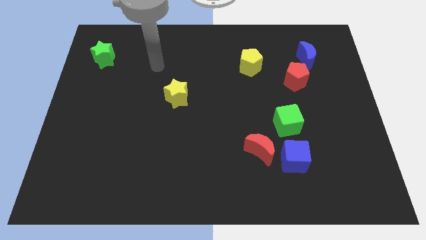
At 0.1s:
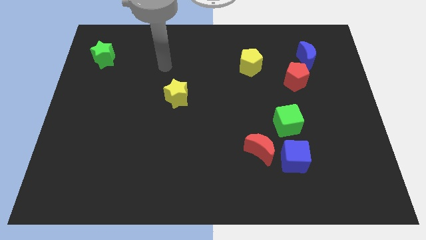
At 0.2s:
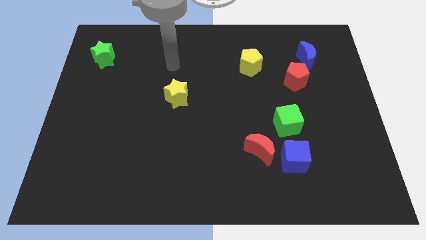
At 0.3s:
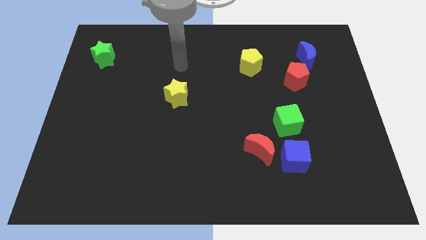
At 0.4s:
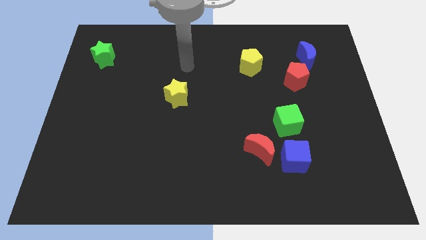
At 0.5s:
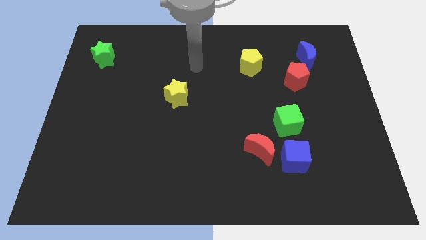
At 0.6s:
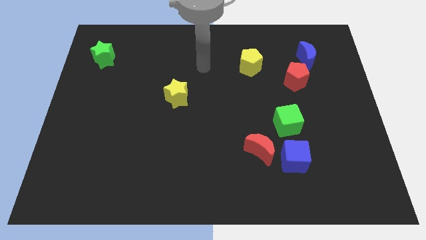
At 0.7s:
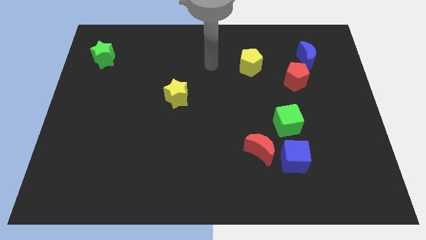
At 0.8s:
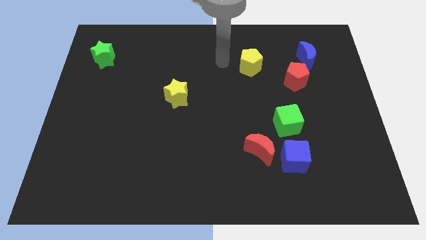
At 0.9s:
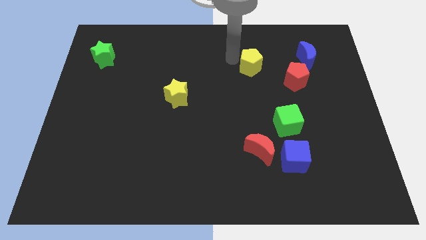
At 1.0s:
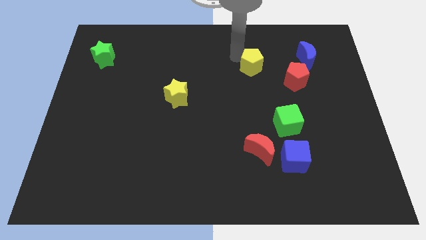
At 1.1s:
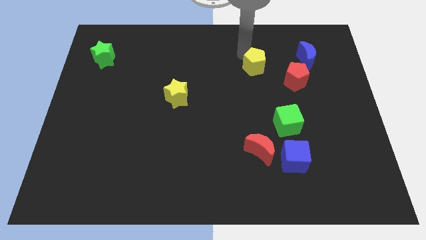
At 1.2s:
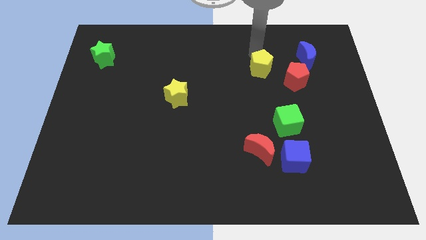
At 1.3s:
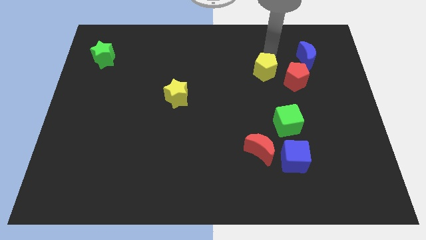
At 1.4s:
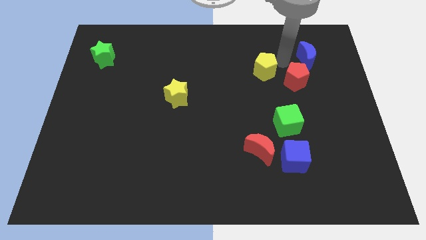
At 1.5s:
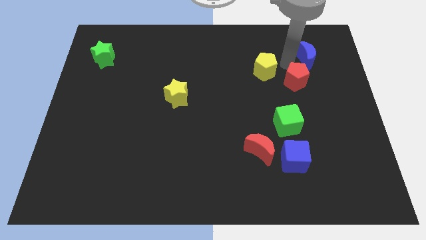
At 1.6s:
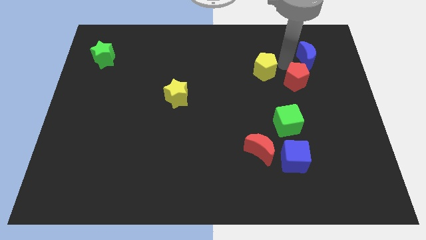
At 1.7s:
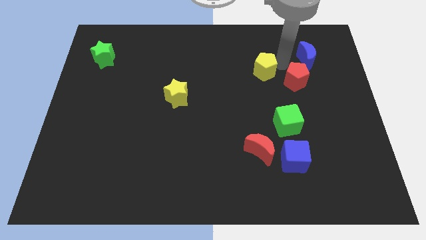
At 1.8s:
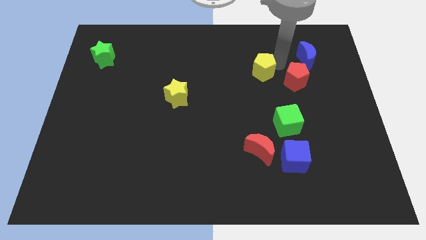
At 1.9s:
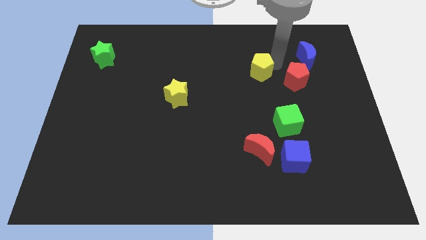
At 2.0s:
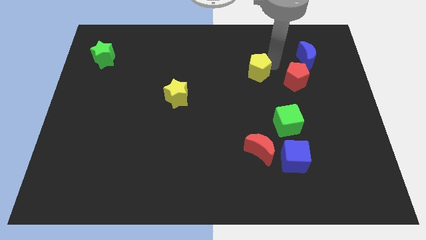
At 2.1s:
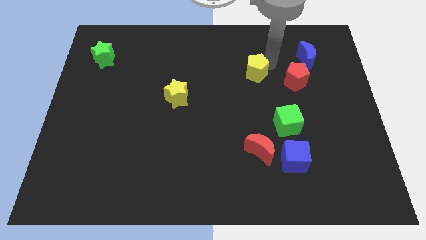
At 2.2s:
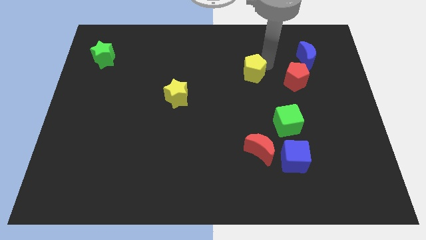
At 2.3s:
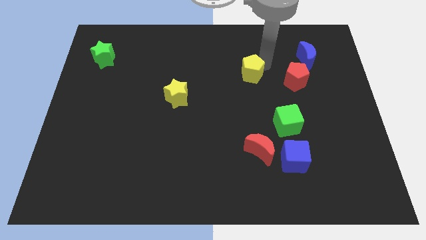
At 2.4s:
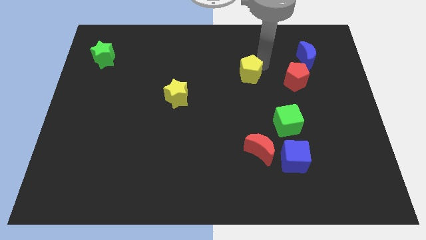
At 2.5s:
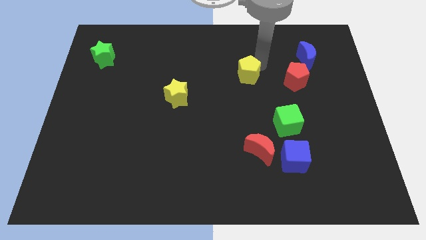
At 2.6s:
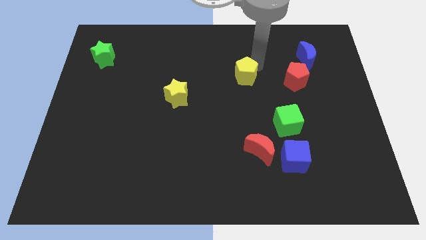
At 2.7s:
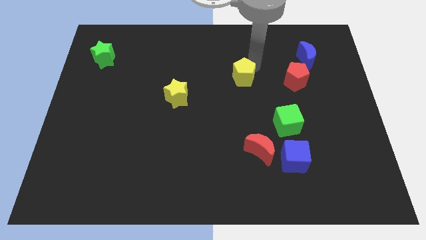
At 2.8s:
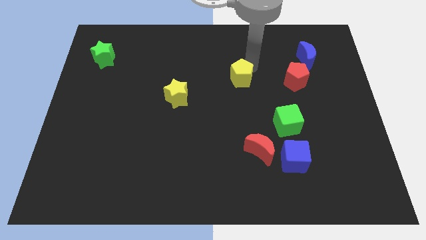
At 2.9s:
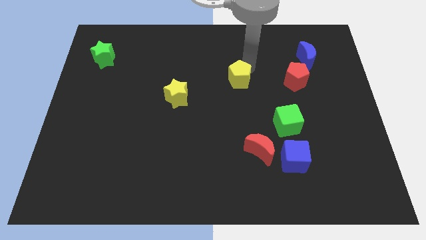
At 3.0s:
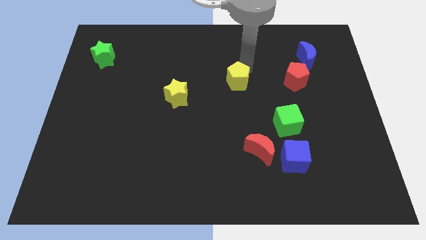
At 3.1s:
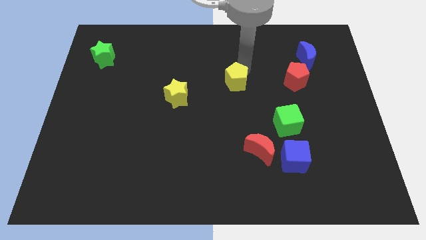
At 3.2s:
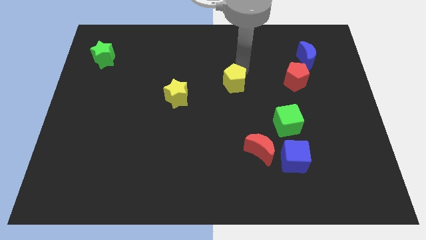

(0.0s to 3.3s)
slide the yellow pentagon down and to the left somewhat

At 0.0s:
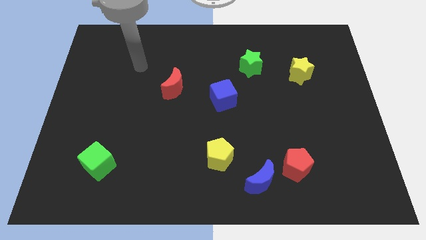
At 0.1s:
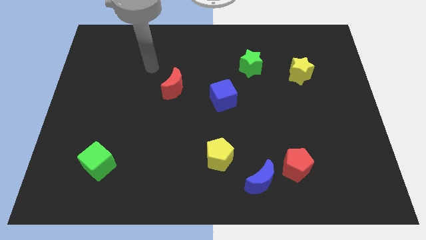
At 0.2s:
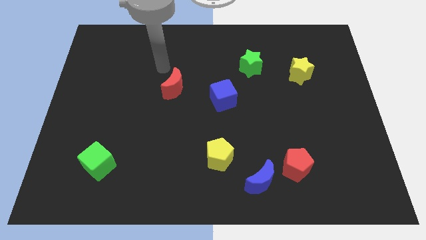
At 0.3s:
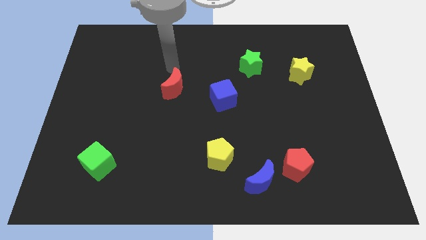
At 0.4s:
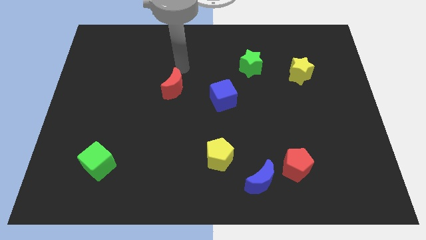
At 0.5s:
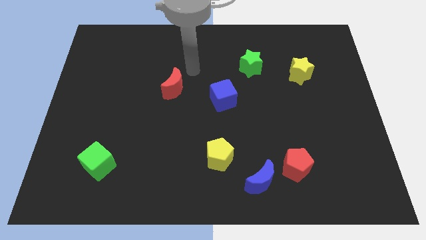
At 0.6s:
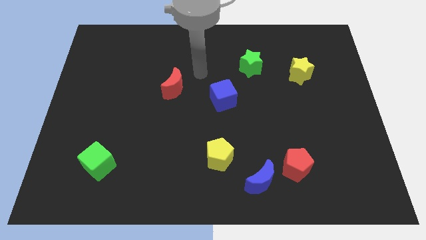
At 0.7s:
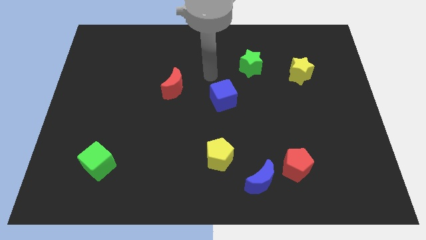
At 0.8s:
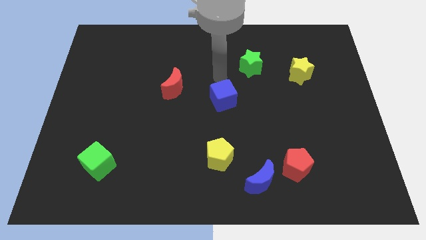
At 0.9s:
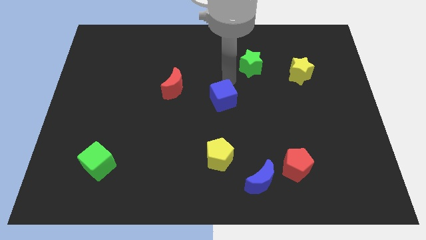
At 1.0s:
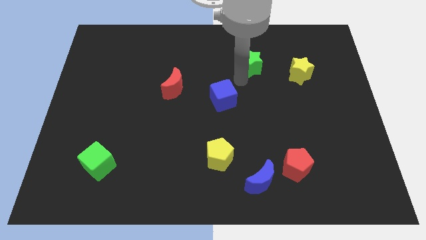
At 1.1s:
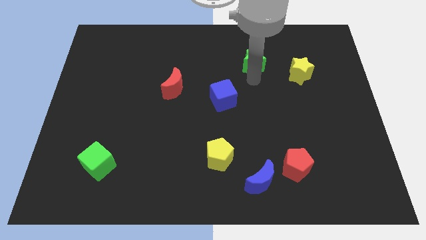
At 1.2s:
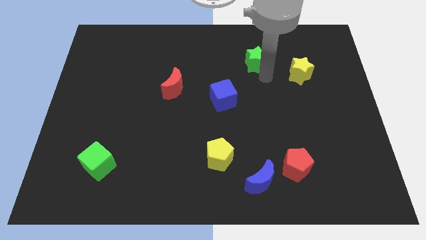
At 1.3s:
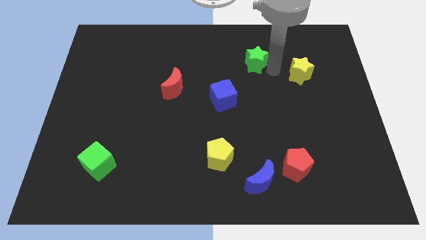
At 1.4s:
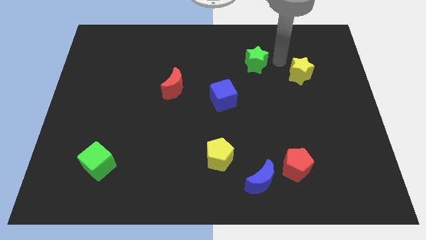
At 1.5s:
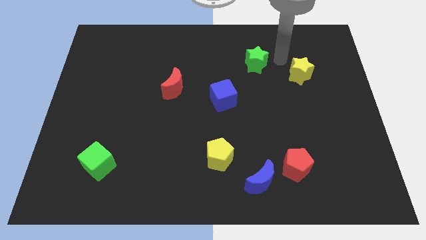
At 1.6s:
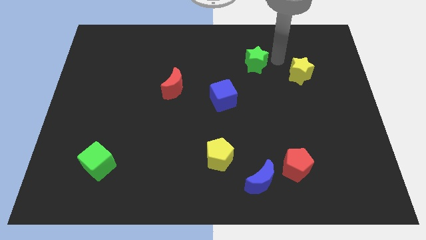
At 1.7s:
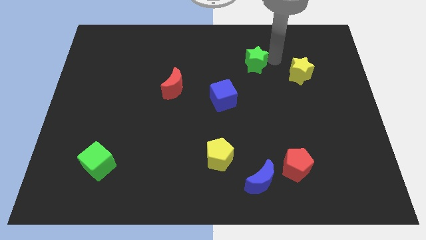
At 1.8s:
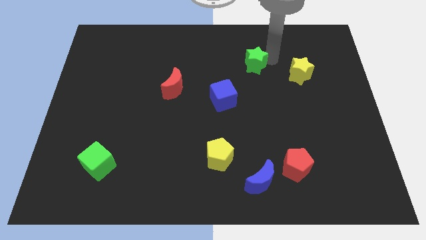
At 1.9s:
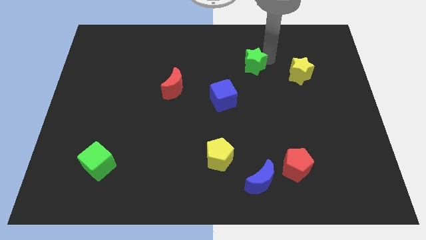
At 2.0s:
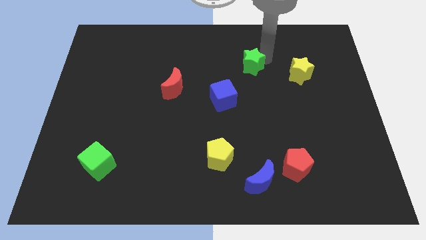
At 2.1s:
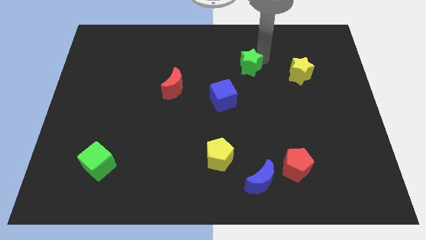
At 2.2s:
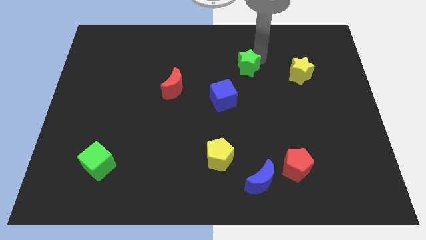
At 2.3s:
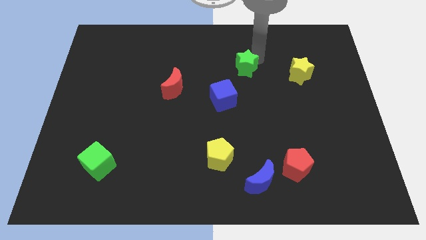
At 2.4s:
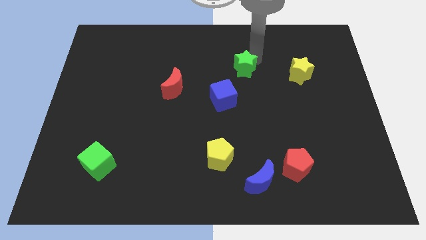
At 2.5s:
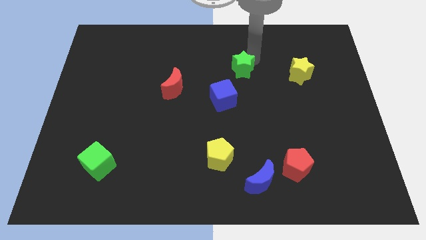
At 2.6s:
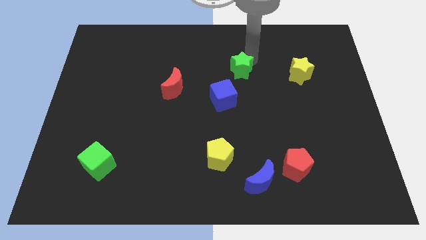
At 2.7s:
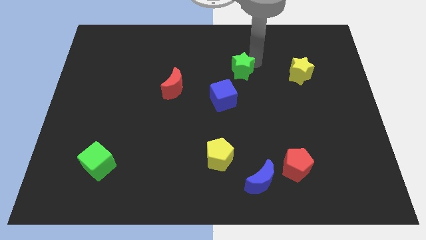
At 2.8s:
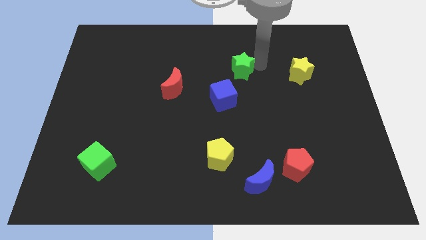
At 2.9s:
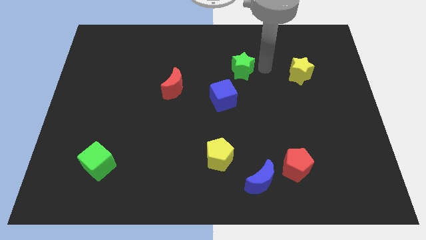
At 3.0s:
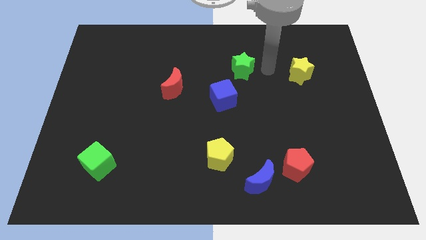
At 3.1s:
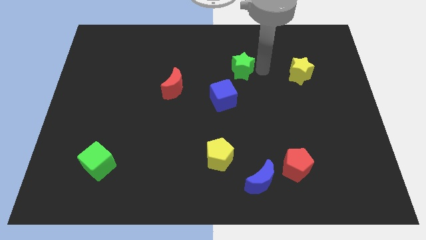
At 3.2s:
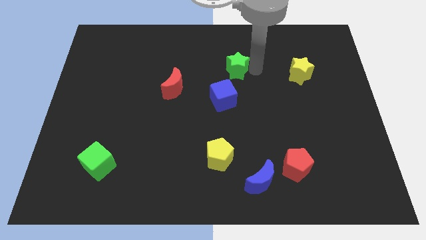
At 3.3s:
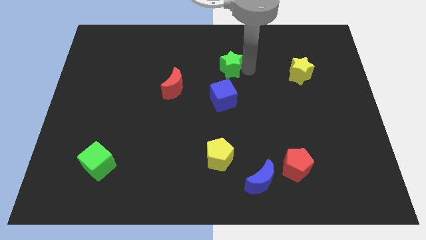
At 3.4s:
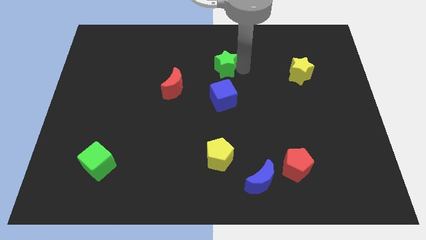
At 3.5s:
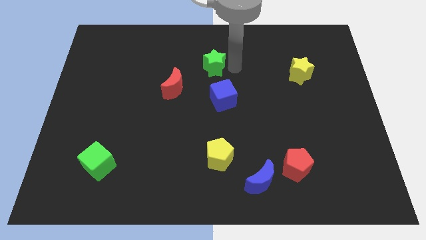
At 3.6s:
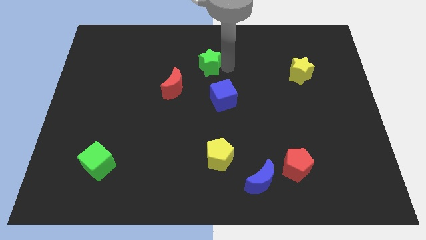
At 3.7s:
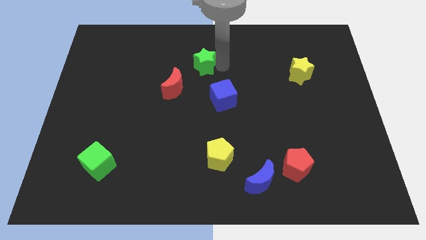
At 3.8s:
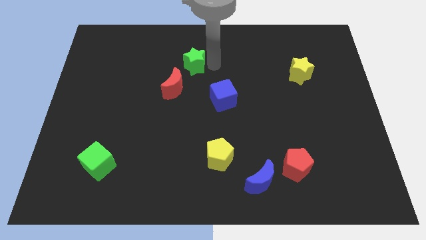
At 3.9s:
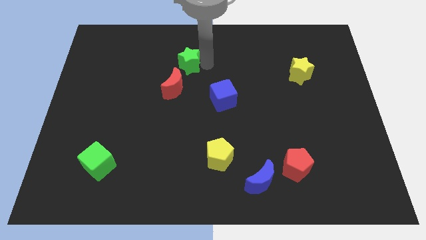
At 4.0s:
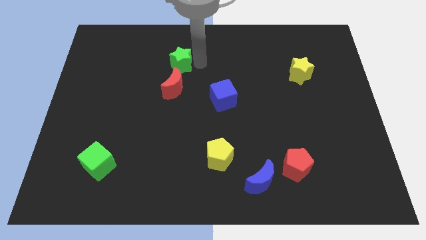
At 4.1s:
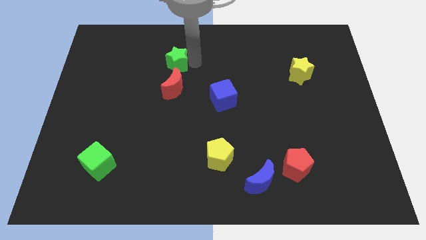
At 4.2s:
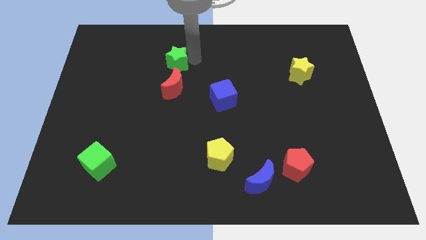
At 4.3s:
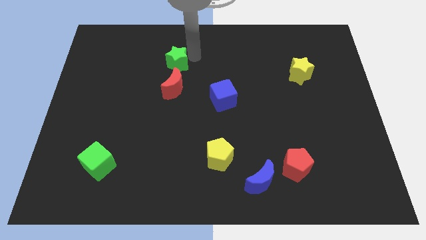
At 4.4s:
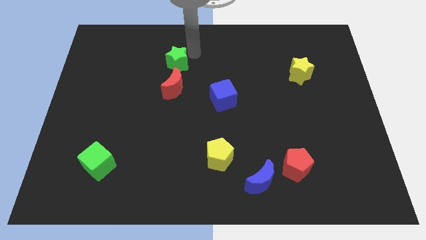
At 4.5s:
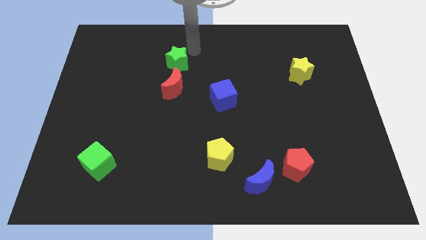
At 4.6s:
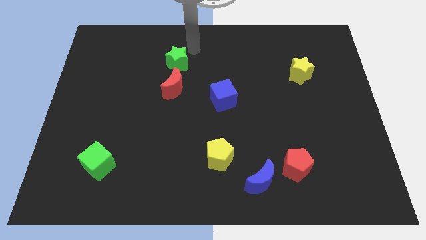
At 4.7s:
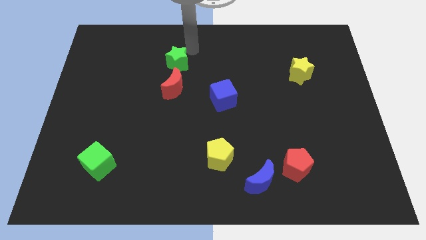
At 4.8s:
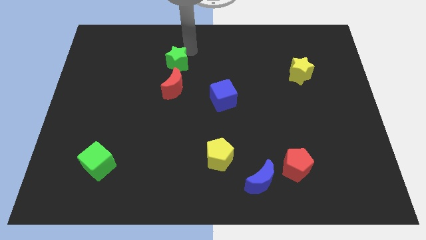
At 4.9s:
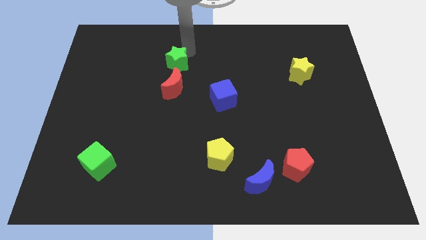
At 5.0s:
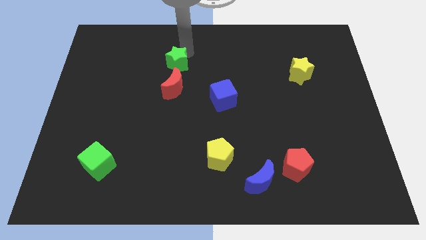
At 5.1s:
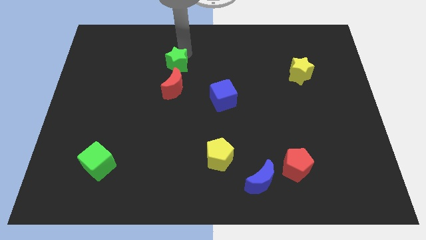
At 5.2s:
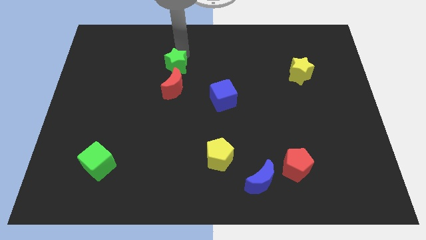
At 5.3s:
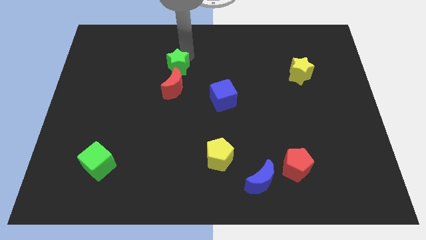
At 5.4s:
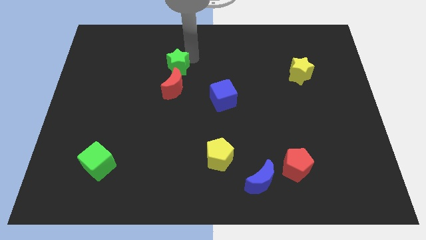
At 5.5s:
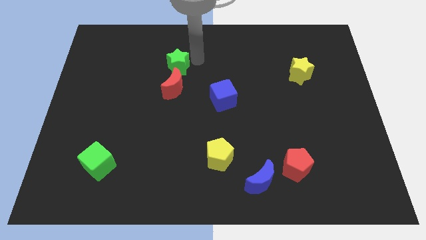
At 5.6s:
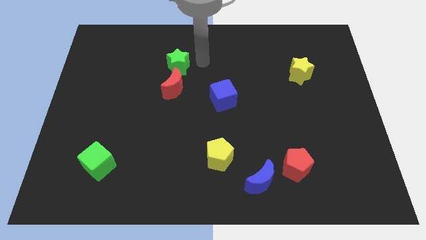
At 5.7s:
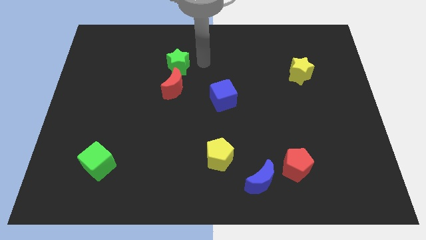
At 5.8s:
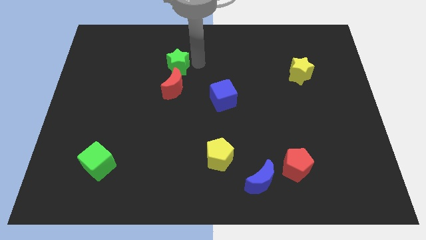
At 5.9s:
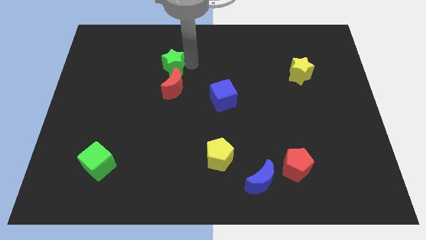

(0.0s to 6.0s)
move the green star left
